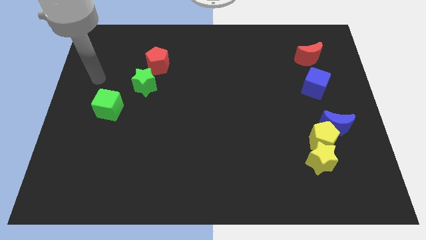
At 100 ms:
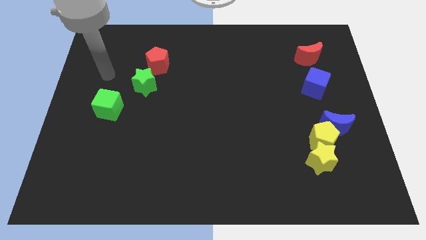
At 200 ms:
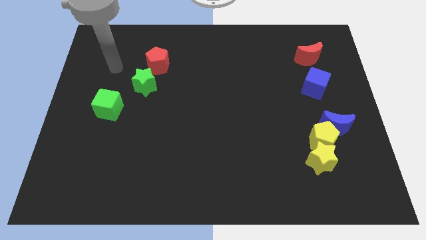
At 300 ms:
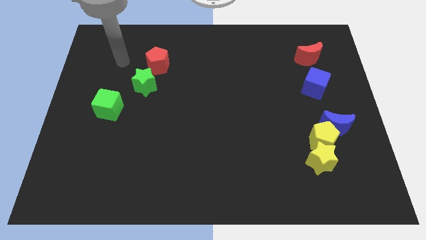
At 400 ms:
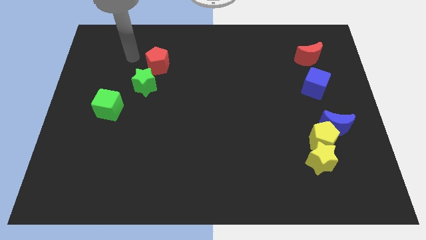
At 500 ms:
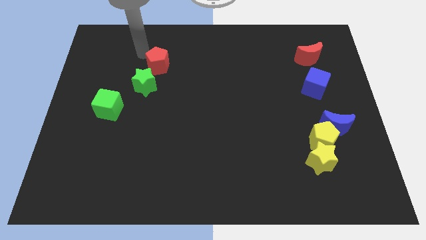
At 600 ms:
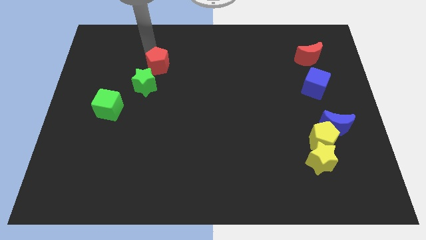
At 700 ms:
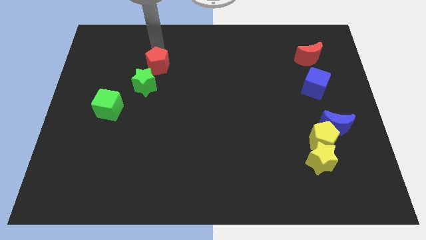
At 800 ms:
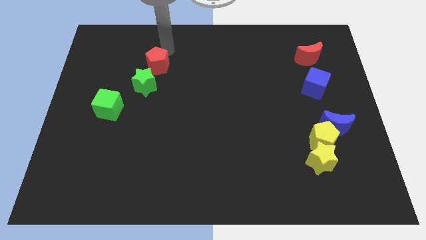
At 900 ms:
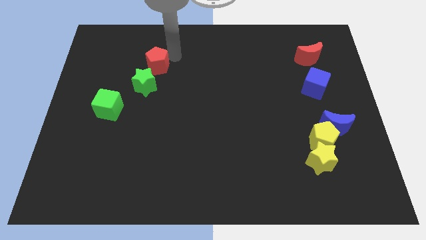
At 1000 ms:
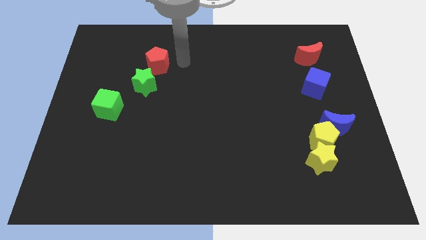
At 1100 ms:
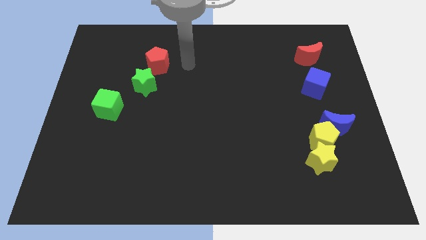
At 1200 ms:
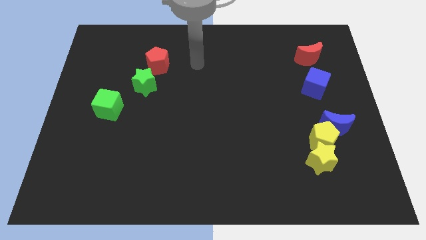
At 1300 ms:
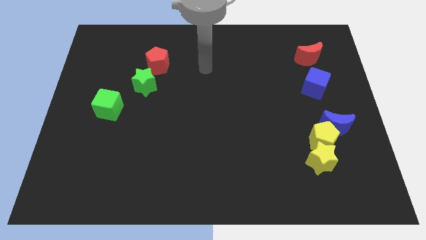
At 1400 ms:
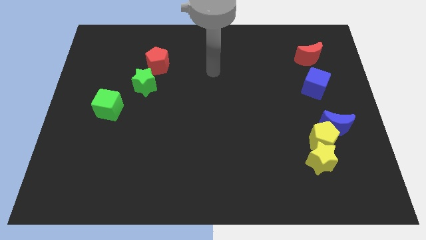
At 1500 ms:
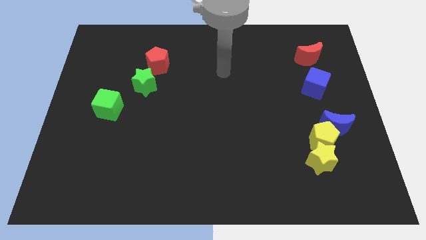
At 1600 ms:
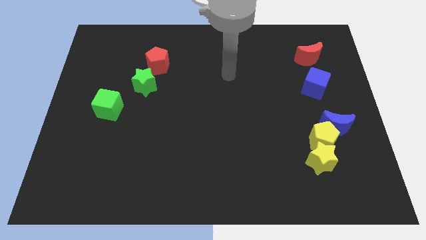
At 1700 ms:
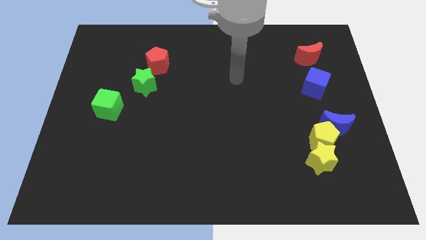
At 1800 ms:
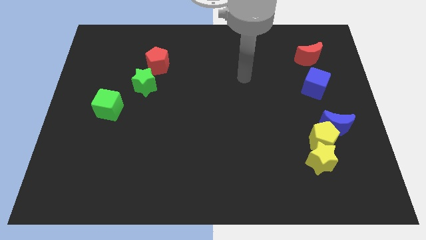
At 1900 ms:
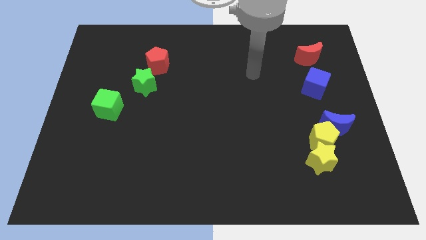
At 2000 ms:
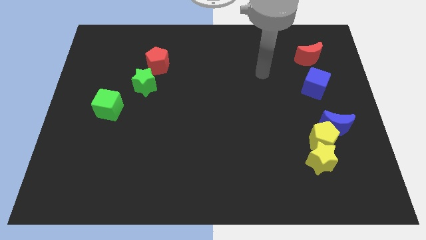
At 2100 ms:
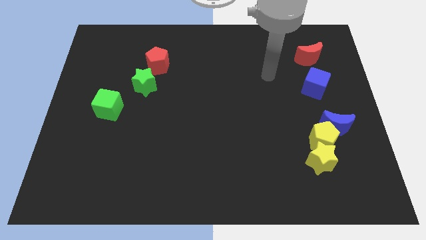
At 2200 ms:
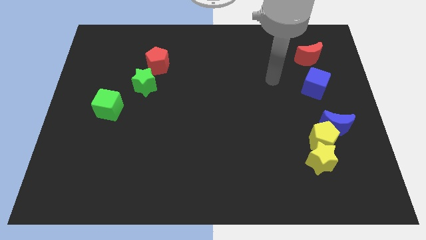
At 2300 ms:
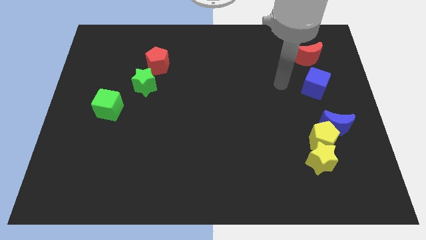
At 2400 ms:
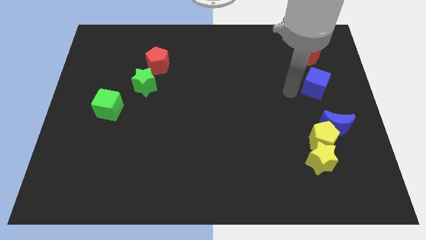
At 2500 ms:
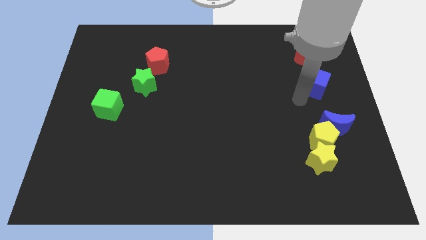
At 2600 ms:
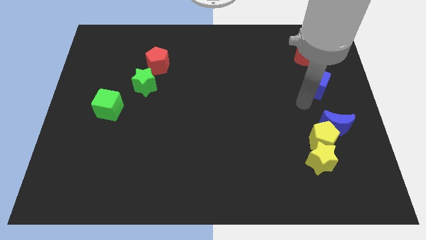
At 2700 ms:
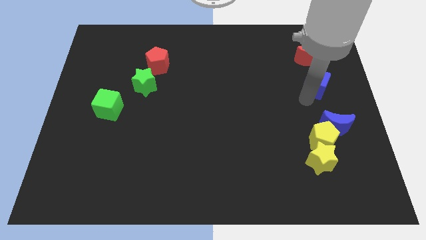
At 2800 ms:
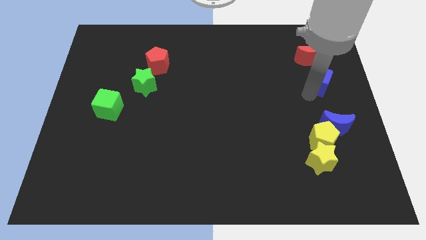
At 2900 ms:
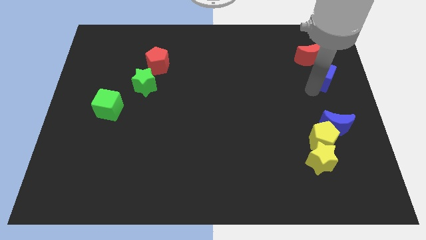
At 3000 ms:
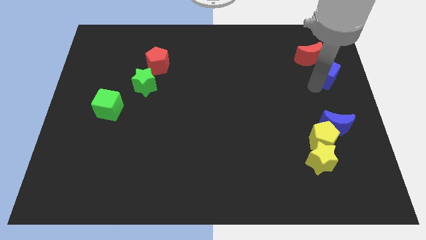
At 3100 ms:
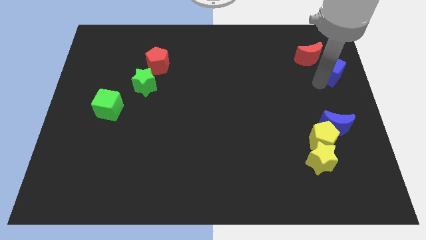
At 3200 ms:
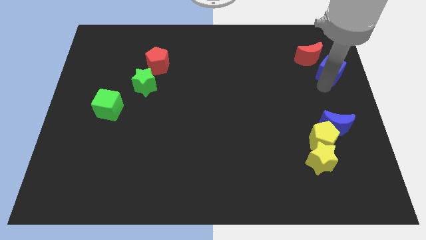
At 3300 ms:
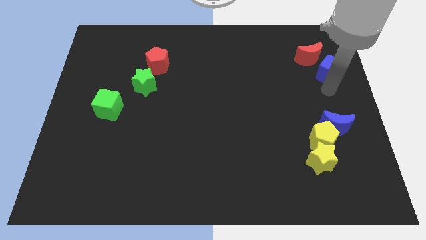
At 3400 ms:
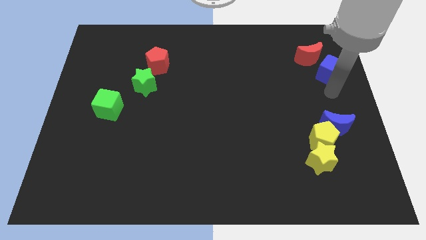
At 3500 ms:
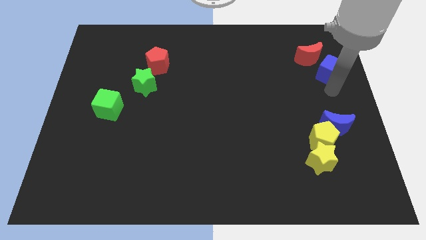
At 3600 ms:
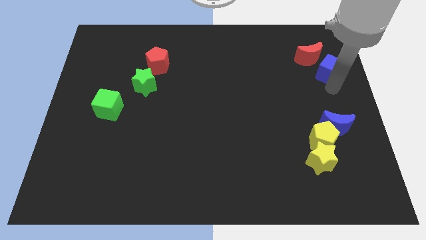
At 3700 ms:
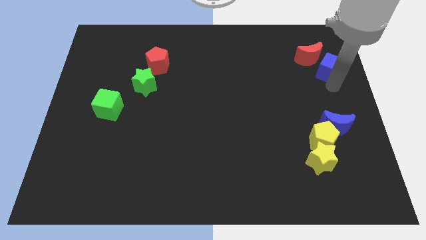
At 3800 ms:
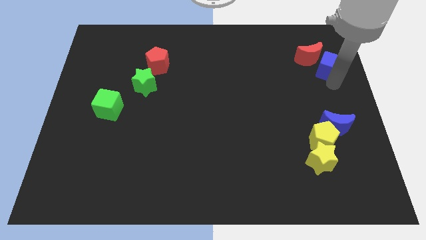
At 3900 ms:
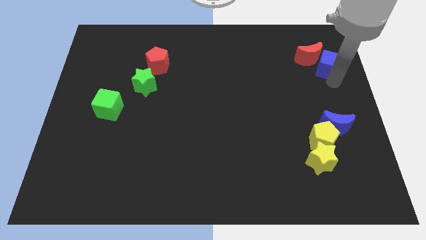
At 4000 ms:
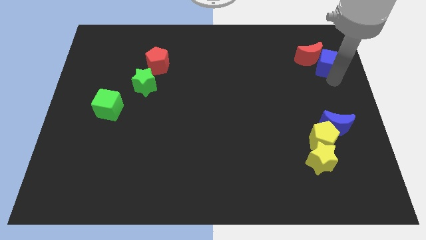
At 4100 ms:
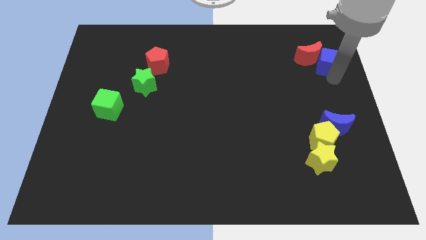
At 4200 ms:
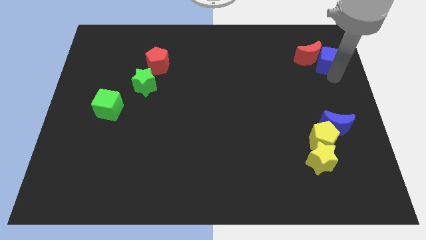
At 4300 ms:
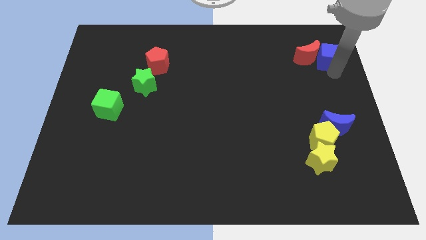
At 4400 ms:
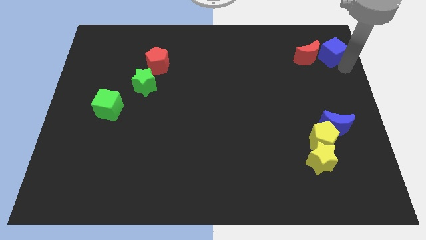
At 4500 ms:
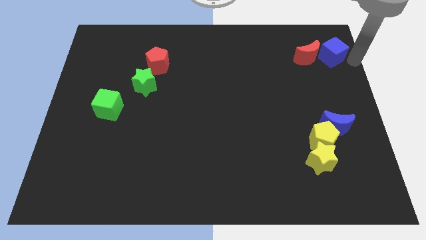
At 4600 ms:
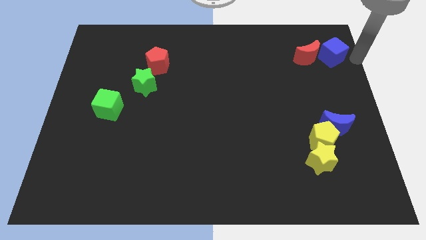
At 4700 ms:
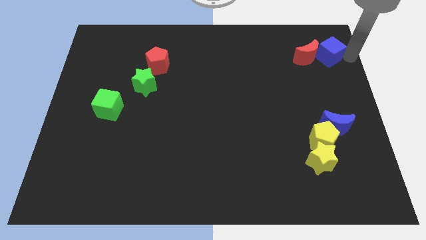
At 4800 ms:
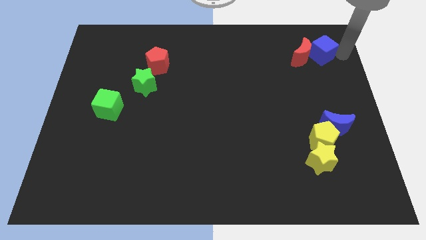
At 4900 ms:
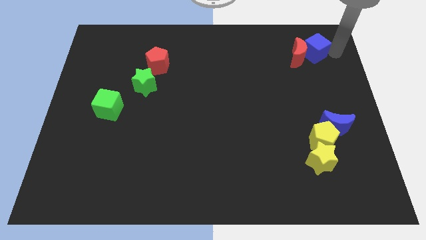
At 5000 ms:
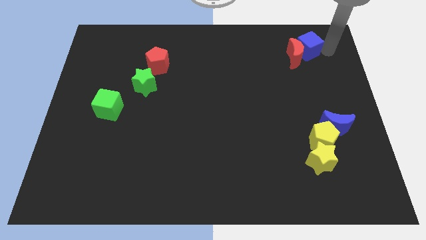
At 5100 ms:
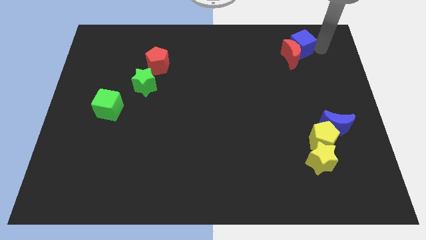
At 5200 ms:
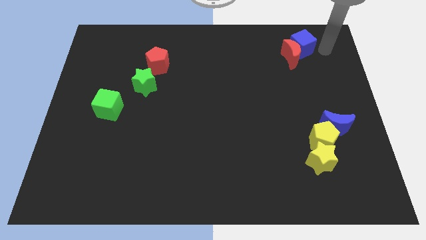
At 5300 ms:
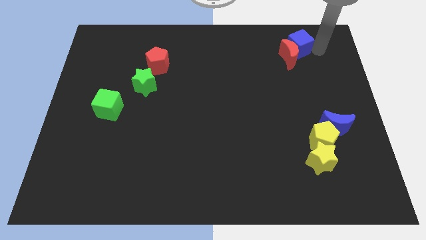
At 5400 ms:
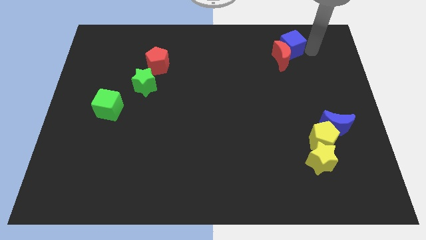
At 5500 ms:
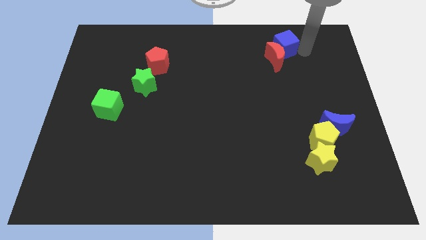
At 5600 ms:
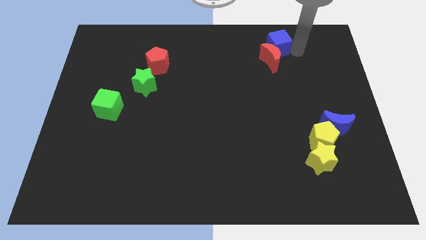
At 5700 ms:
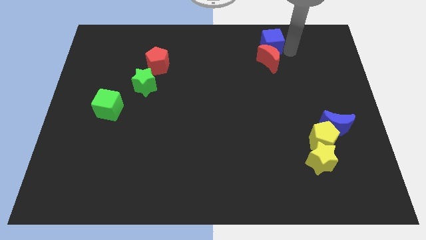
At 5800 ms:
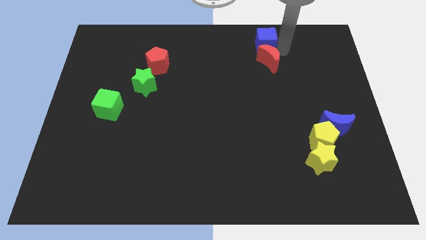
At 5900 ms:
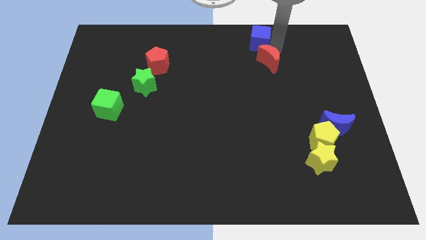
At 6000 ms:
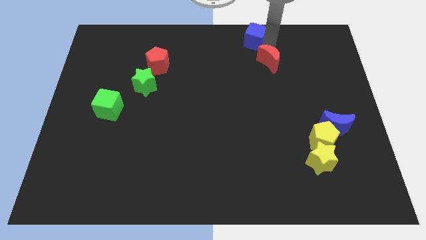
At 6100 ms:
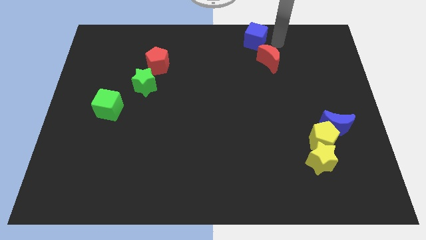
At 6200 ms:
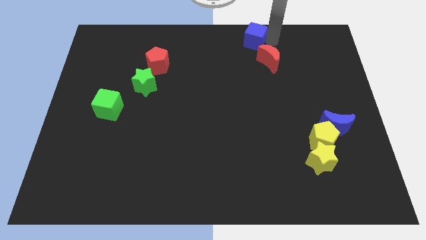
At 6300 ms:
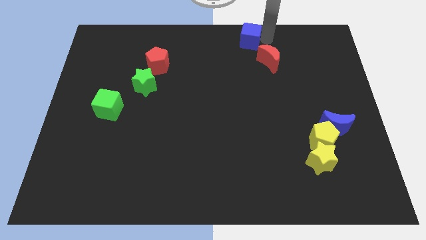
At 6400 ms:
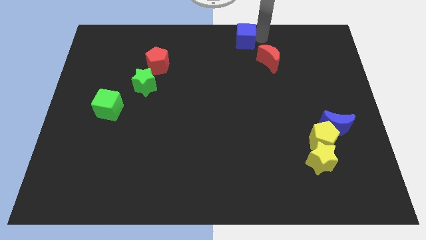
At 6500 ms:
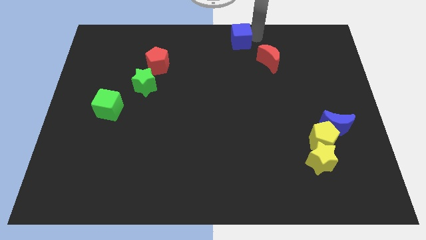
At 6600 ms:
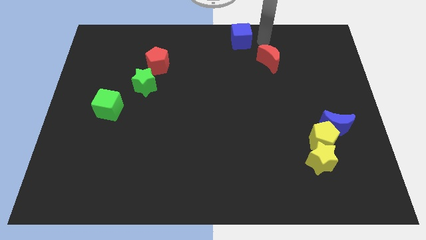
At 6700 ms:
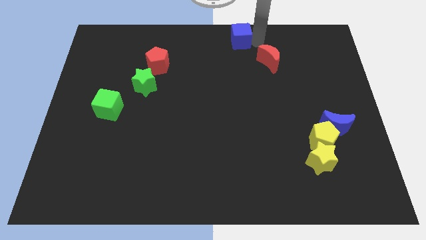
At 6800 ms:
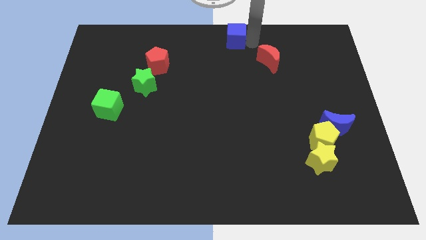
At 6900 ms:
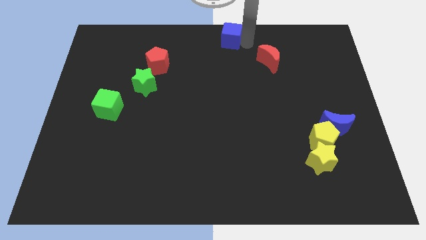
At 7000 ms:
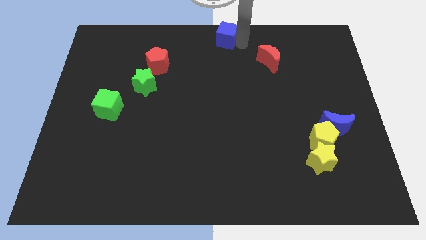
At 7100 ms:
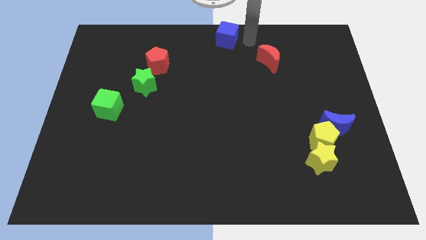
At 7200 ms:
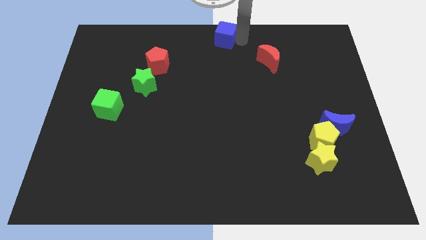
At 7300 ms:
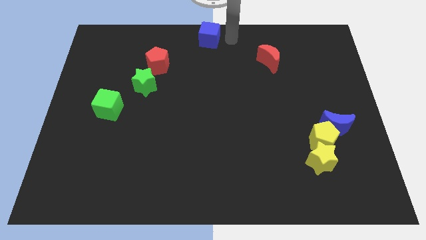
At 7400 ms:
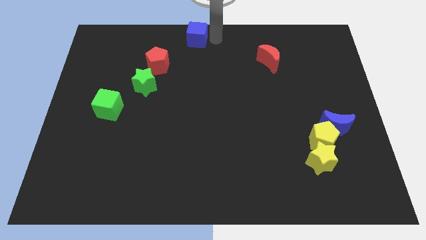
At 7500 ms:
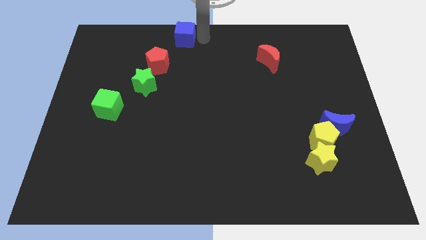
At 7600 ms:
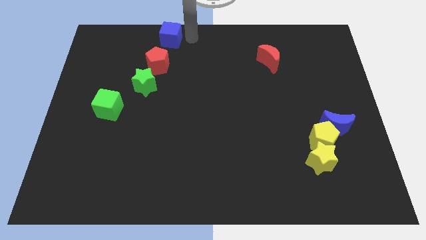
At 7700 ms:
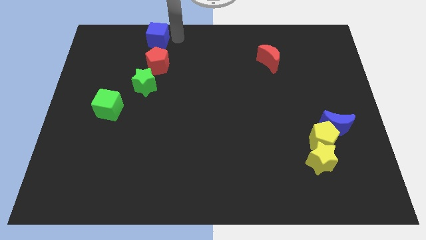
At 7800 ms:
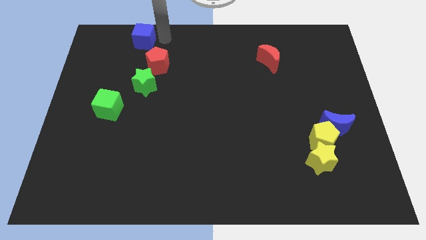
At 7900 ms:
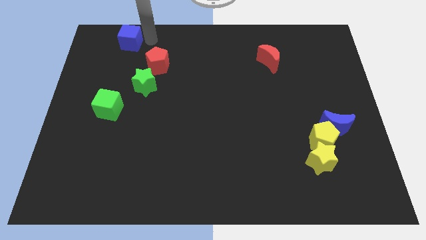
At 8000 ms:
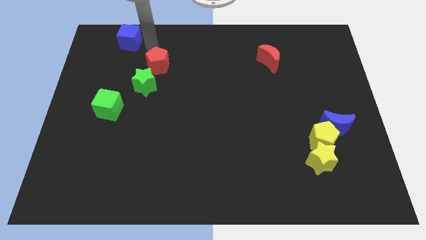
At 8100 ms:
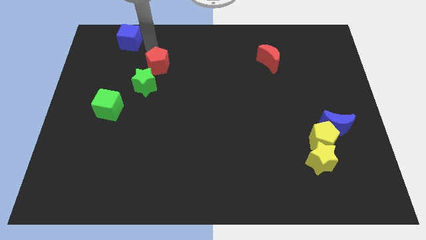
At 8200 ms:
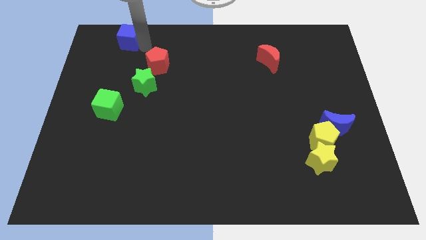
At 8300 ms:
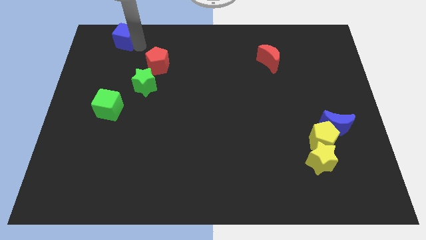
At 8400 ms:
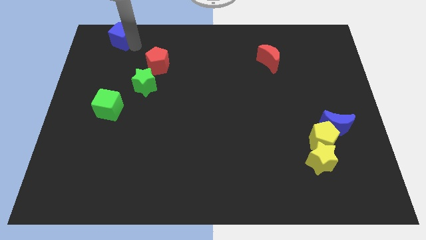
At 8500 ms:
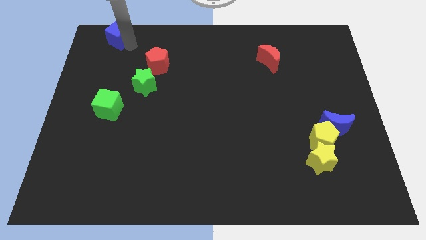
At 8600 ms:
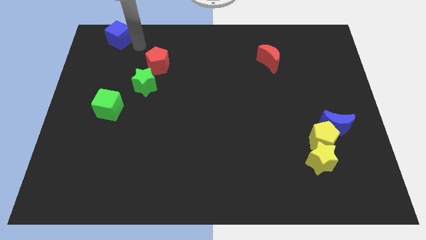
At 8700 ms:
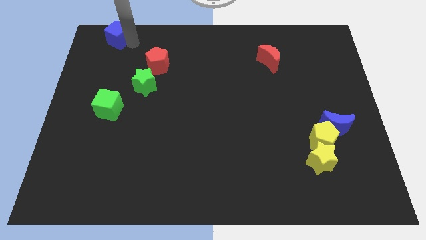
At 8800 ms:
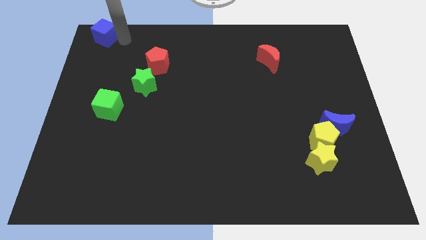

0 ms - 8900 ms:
move the blue cube to the upper left corner
